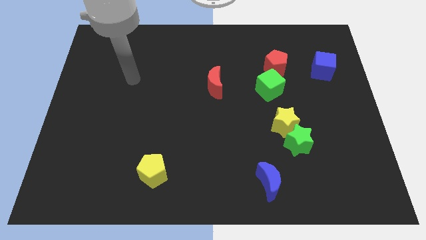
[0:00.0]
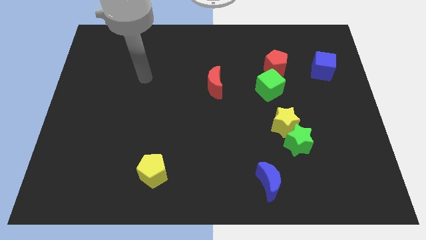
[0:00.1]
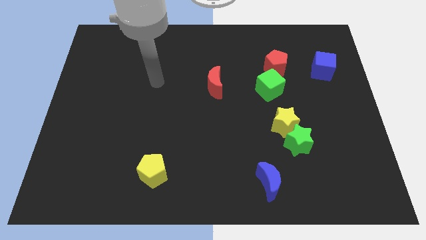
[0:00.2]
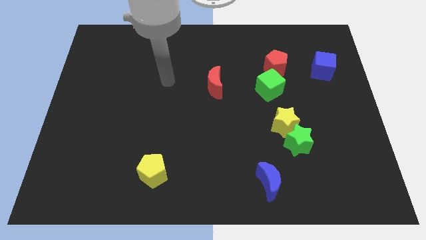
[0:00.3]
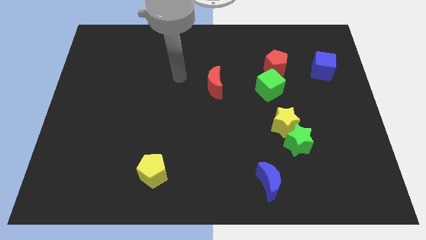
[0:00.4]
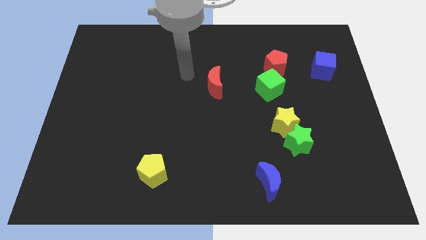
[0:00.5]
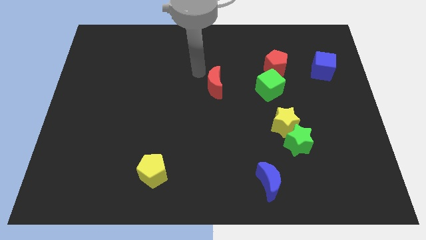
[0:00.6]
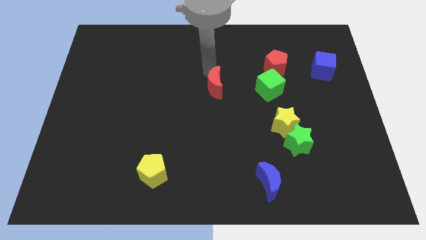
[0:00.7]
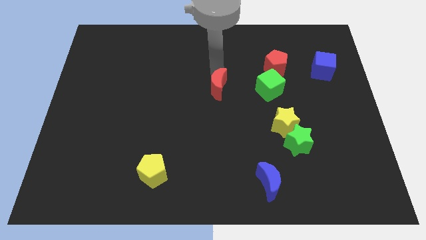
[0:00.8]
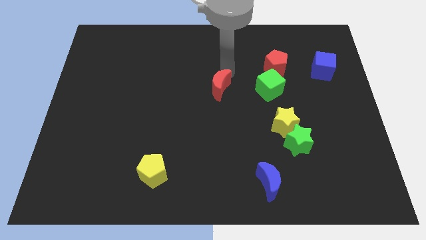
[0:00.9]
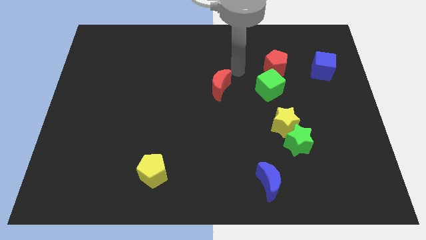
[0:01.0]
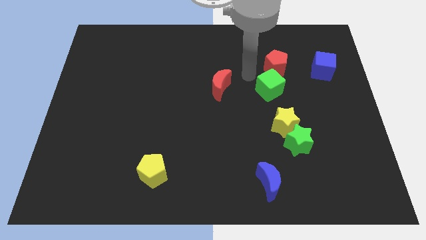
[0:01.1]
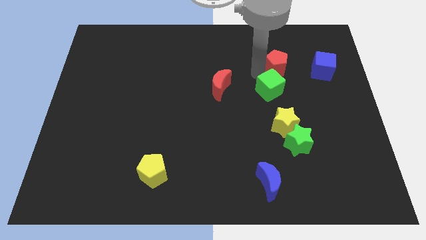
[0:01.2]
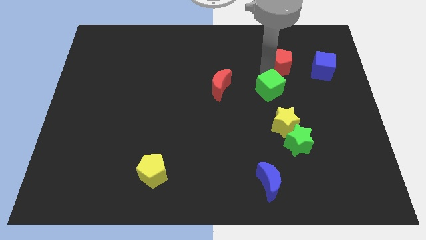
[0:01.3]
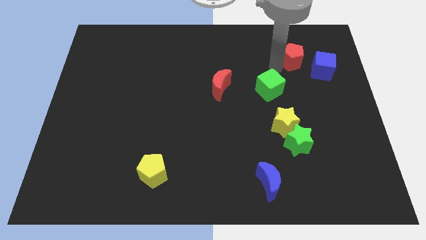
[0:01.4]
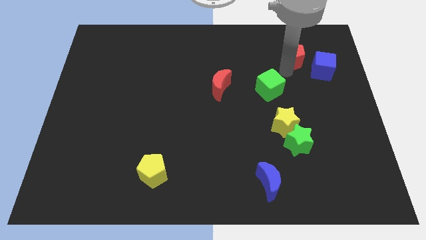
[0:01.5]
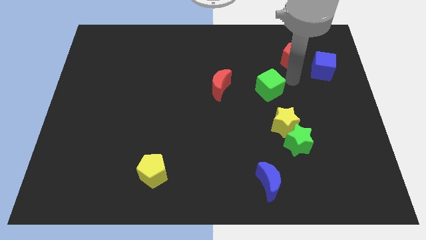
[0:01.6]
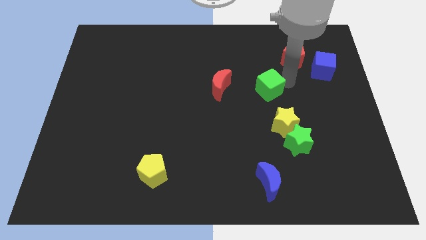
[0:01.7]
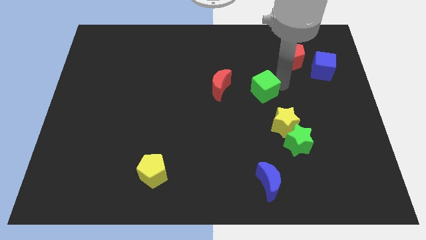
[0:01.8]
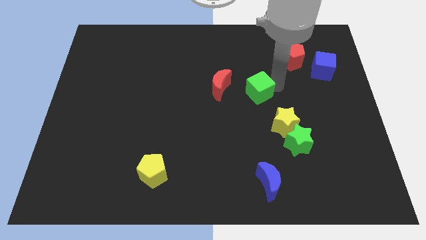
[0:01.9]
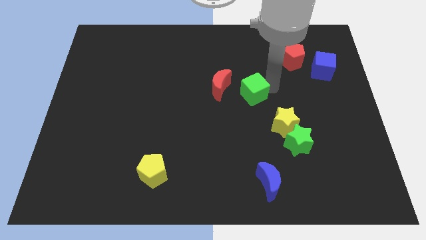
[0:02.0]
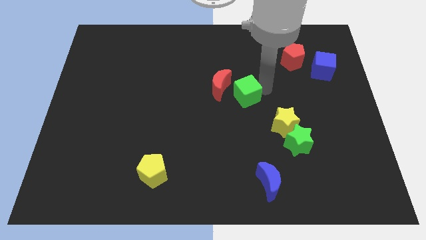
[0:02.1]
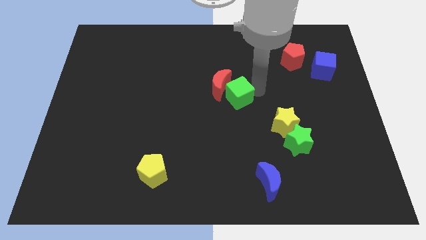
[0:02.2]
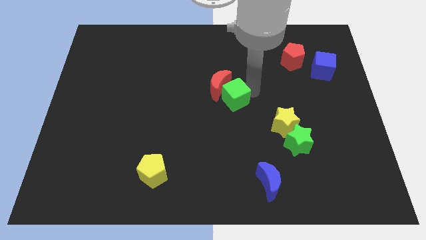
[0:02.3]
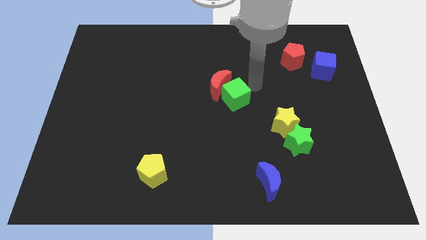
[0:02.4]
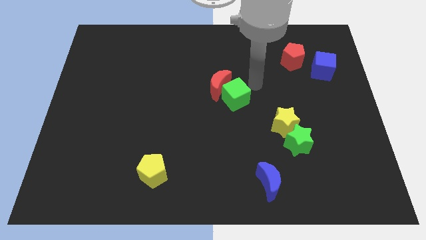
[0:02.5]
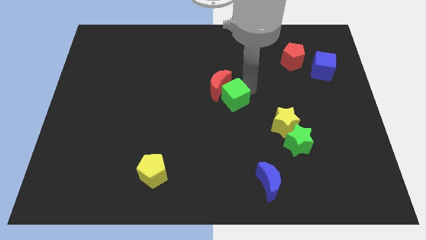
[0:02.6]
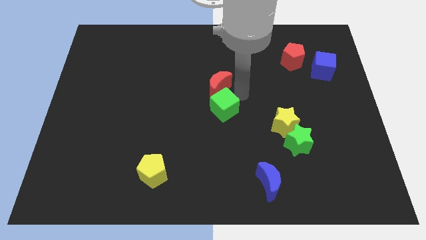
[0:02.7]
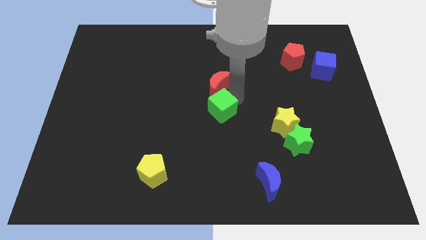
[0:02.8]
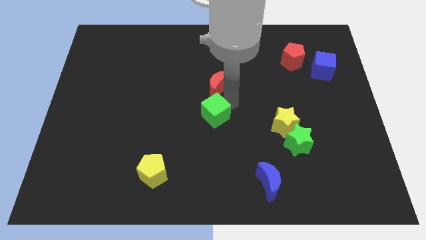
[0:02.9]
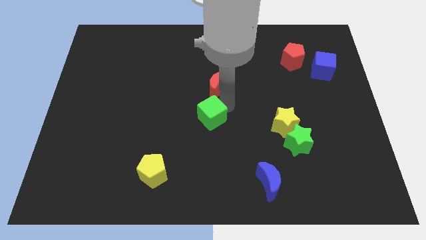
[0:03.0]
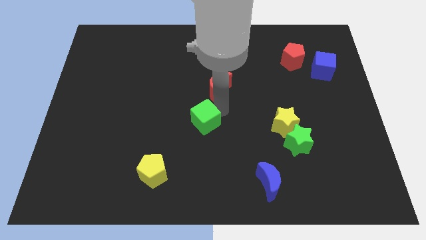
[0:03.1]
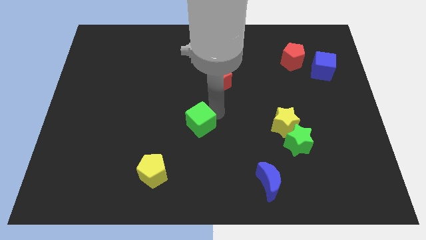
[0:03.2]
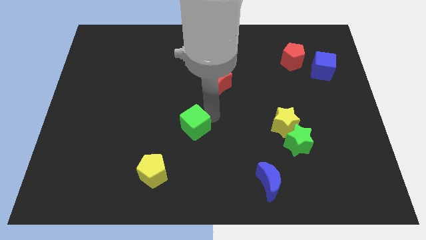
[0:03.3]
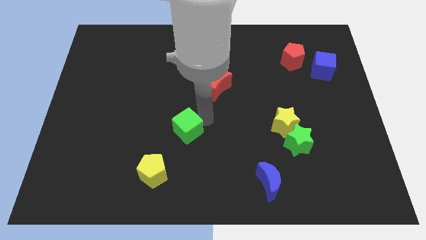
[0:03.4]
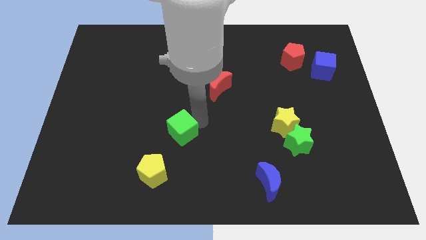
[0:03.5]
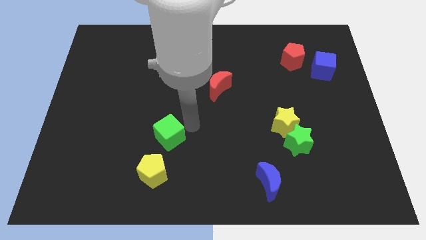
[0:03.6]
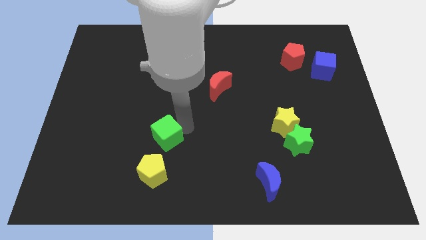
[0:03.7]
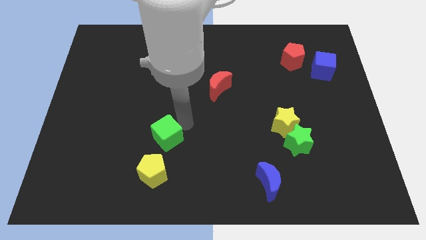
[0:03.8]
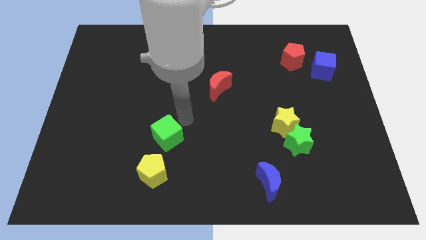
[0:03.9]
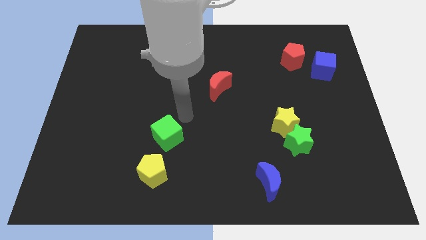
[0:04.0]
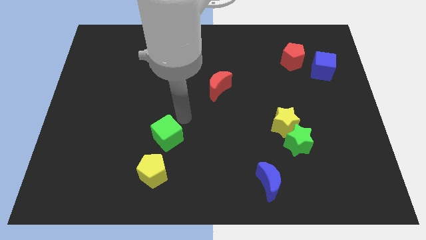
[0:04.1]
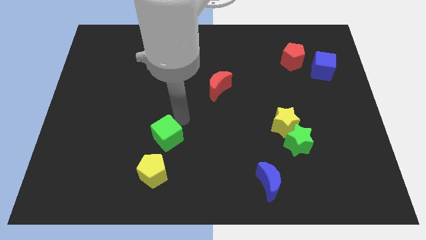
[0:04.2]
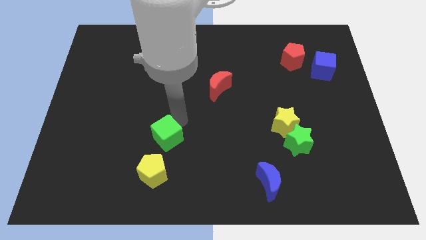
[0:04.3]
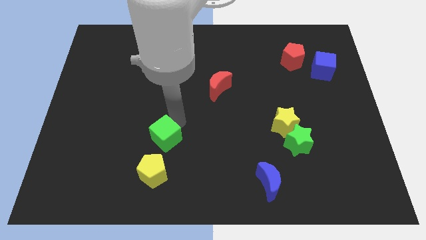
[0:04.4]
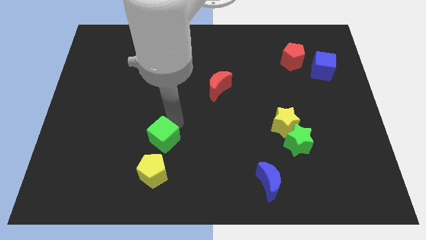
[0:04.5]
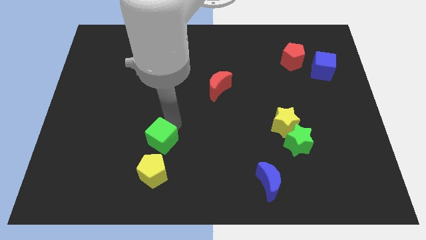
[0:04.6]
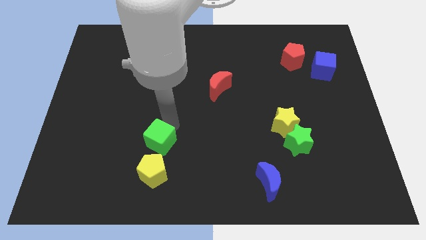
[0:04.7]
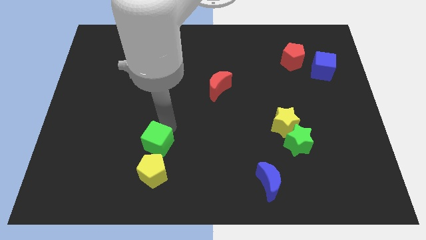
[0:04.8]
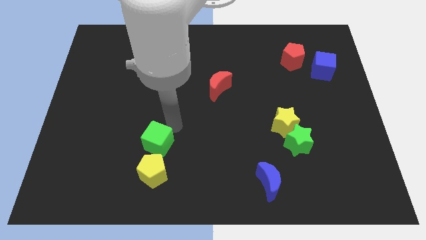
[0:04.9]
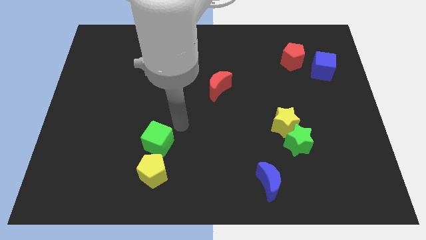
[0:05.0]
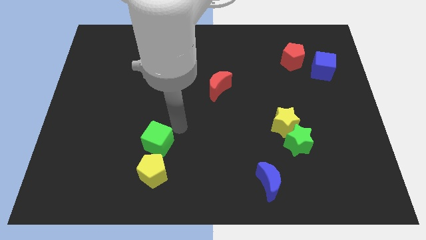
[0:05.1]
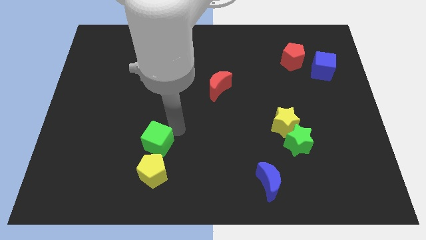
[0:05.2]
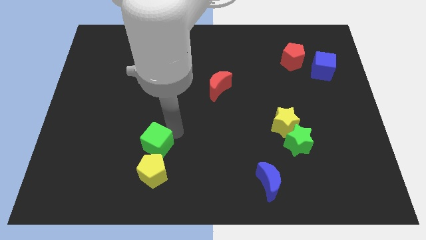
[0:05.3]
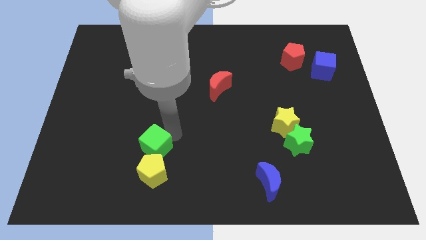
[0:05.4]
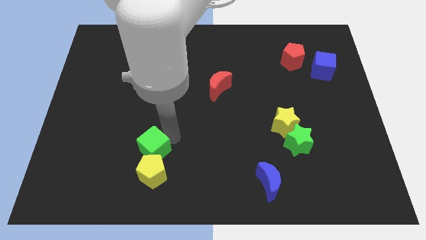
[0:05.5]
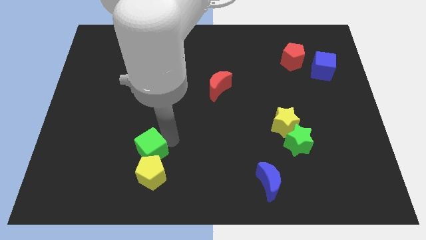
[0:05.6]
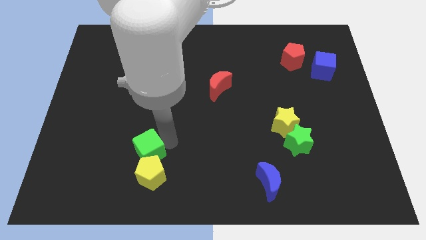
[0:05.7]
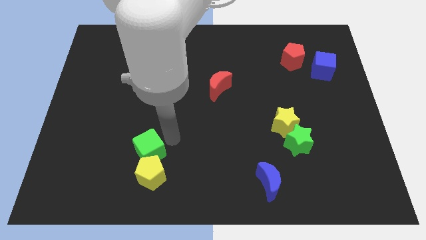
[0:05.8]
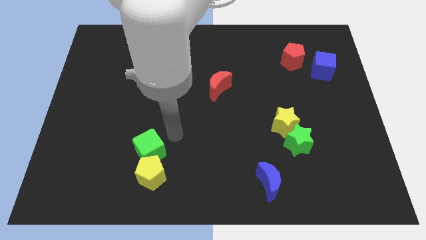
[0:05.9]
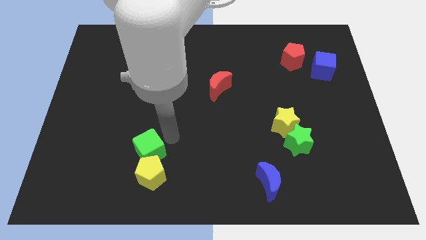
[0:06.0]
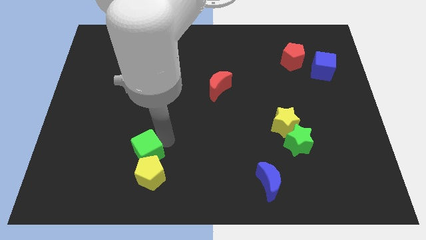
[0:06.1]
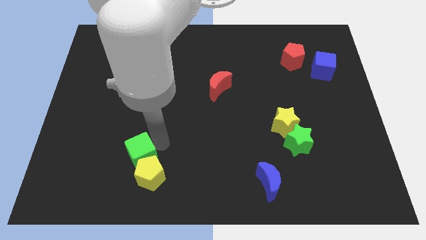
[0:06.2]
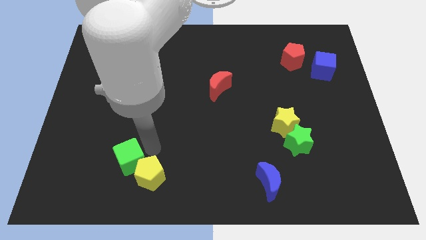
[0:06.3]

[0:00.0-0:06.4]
push the green cube just left of the yellow pentagon

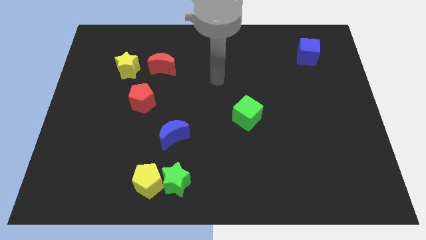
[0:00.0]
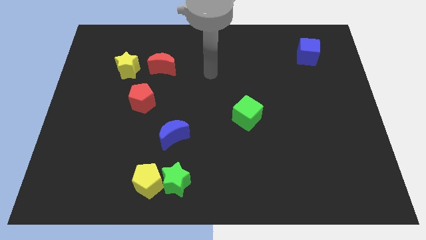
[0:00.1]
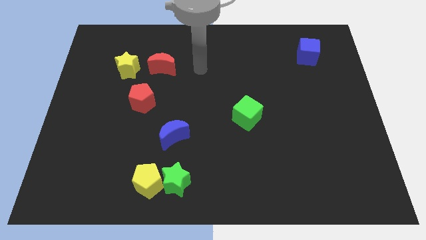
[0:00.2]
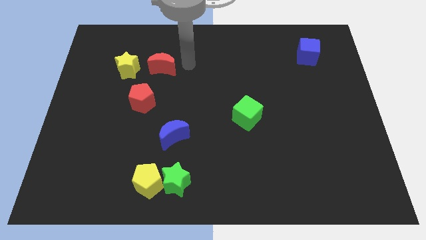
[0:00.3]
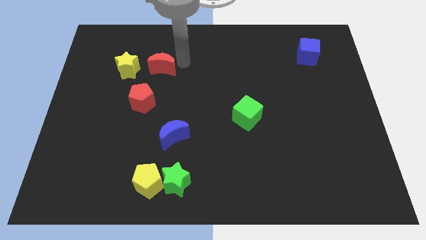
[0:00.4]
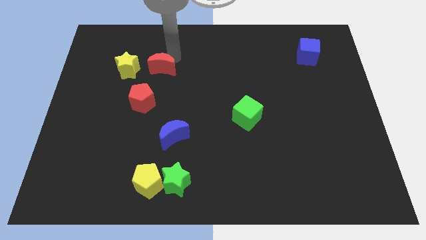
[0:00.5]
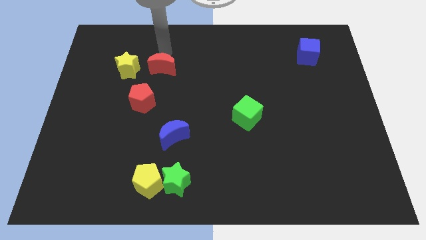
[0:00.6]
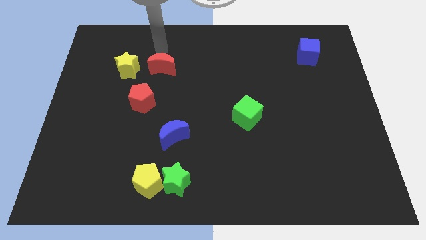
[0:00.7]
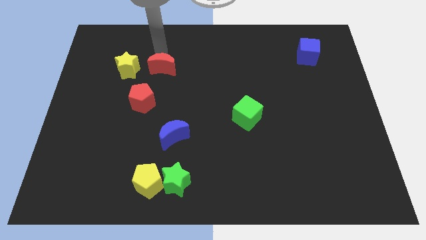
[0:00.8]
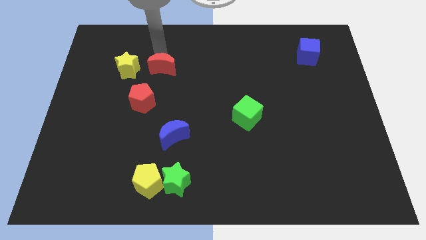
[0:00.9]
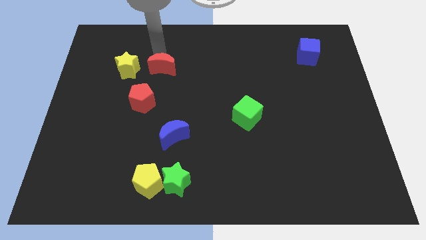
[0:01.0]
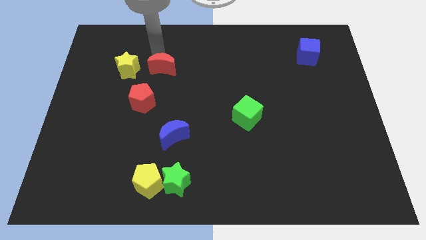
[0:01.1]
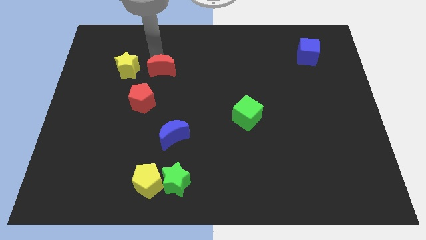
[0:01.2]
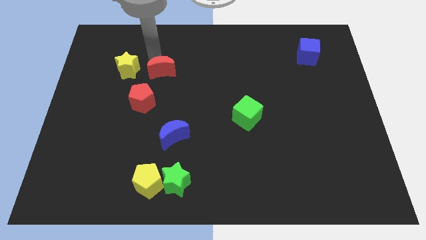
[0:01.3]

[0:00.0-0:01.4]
slide the red moon to the top right of the red pentagon

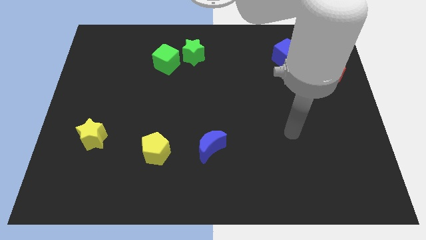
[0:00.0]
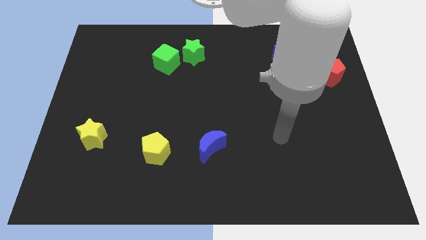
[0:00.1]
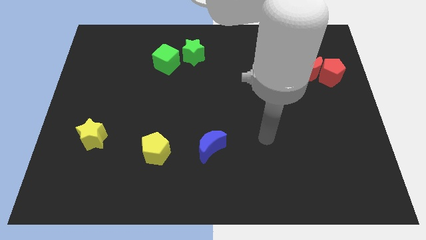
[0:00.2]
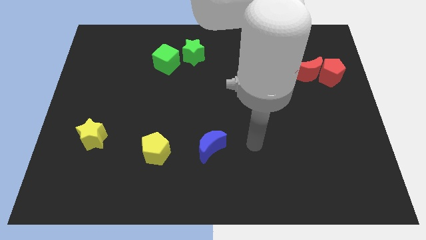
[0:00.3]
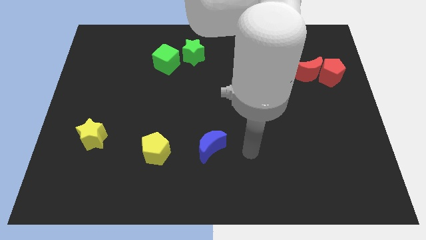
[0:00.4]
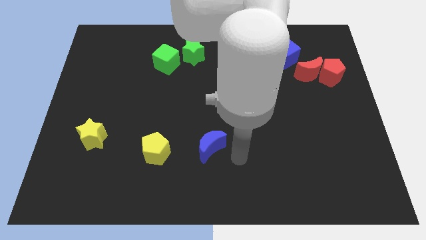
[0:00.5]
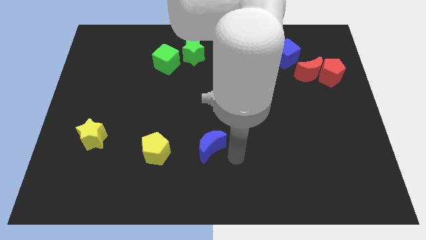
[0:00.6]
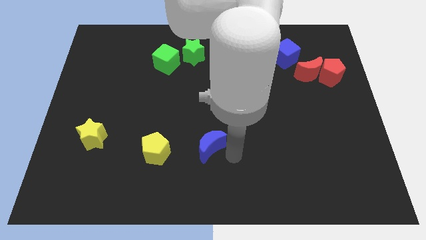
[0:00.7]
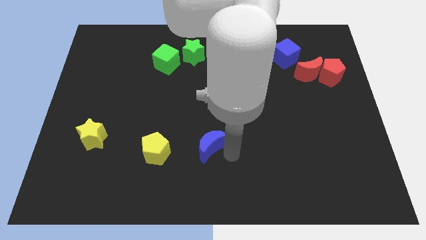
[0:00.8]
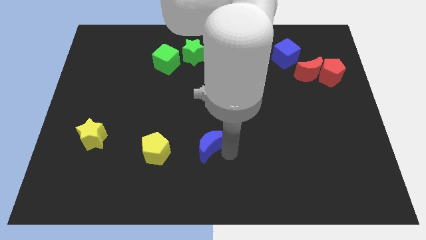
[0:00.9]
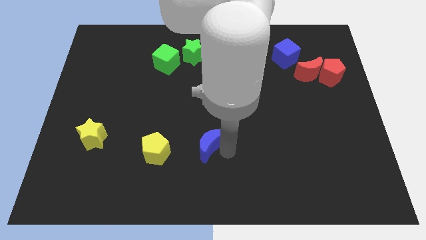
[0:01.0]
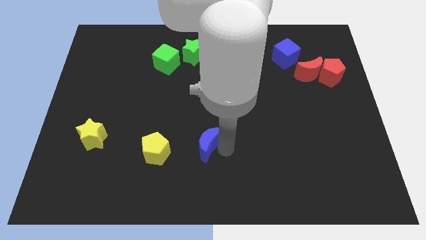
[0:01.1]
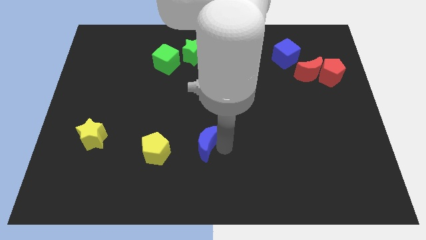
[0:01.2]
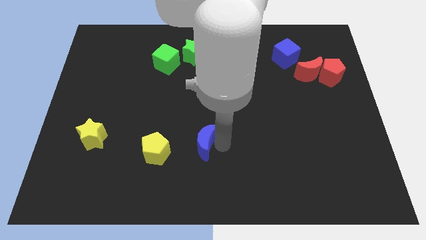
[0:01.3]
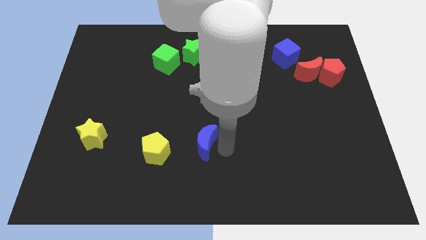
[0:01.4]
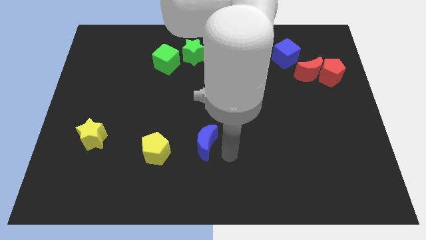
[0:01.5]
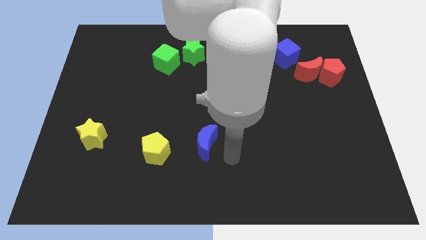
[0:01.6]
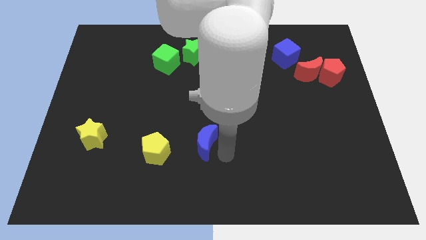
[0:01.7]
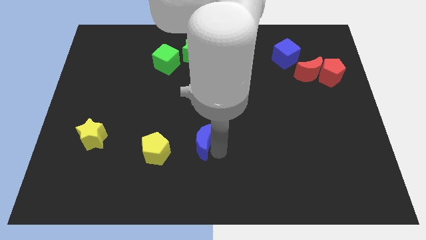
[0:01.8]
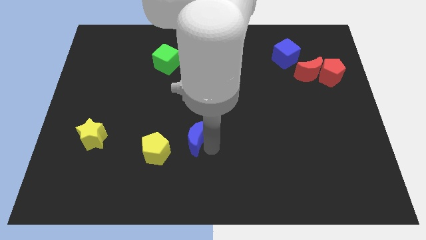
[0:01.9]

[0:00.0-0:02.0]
move the blue moon to the top right side of the yellow pentagon
